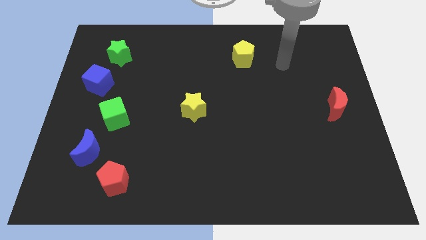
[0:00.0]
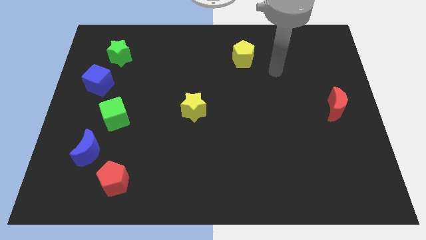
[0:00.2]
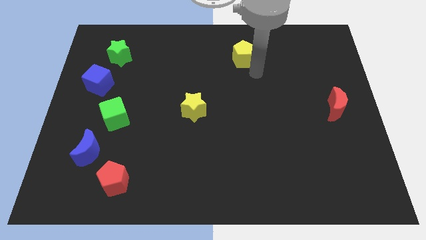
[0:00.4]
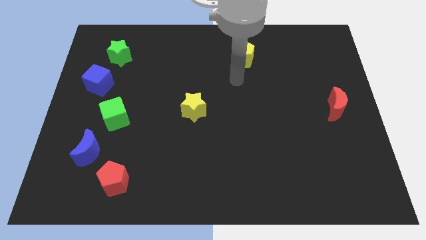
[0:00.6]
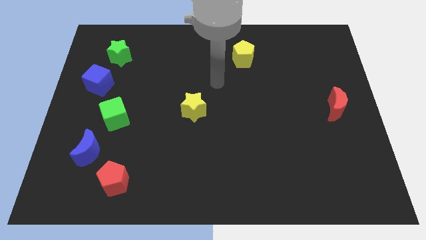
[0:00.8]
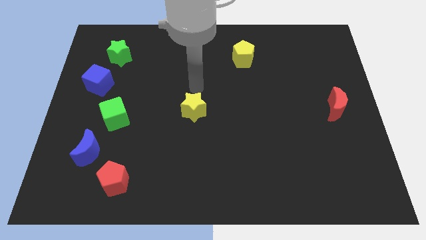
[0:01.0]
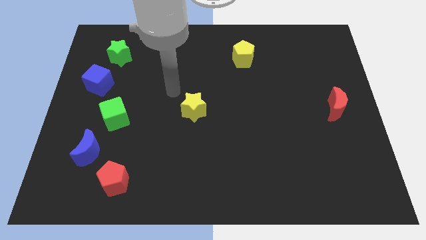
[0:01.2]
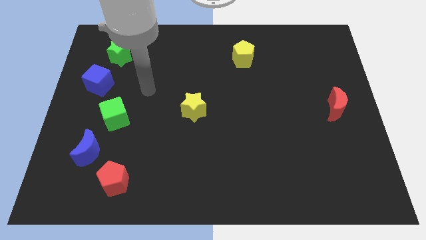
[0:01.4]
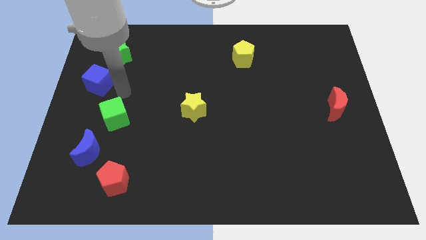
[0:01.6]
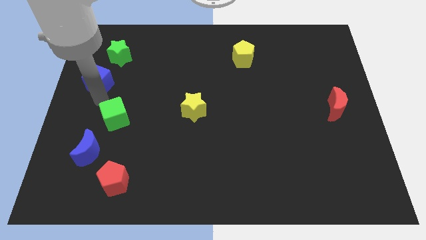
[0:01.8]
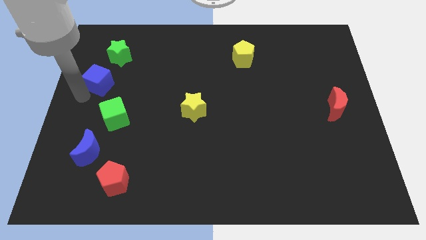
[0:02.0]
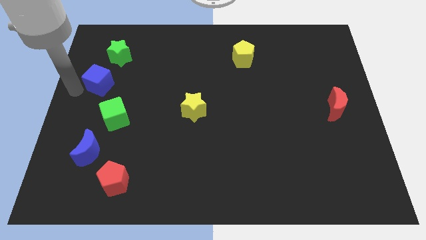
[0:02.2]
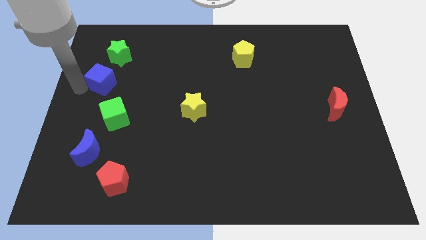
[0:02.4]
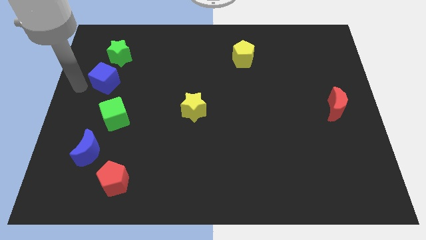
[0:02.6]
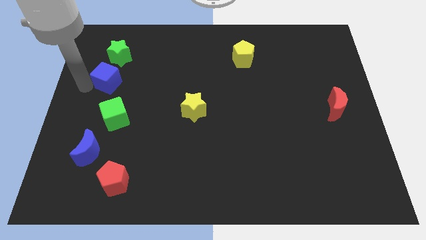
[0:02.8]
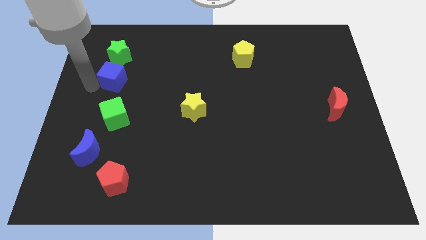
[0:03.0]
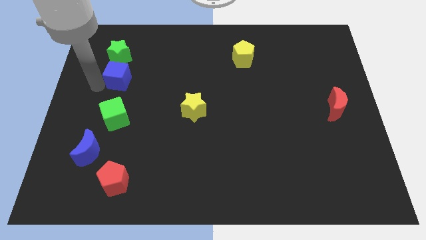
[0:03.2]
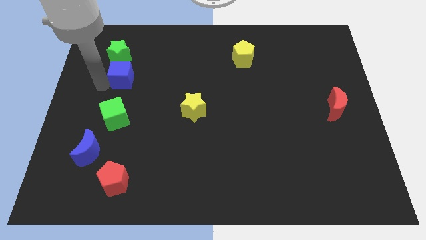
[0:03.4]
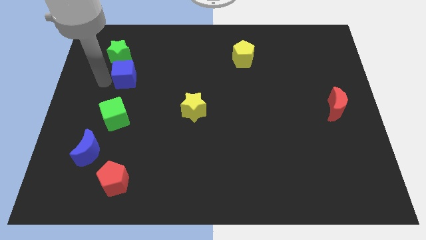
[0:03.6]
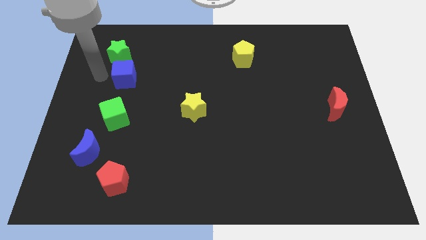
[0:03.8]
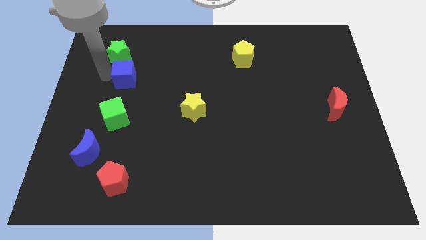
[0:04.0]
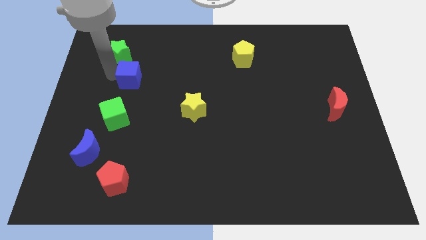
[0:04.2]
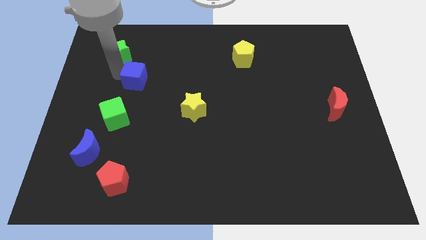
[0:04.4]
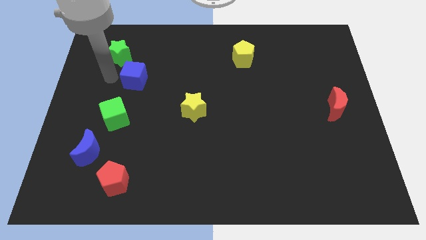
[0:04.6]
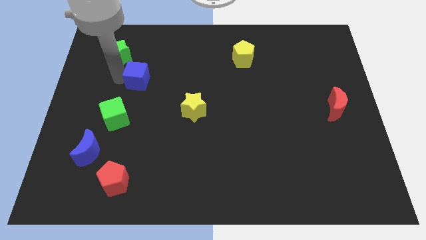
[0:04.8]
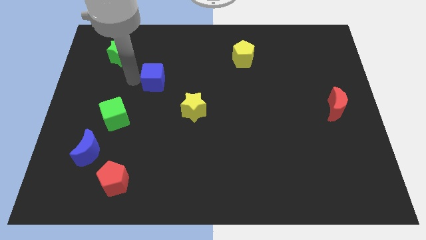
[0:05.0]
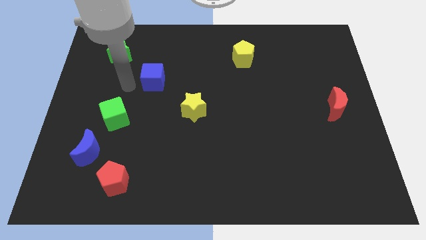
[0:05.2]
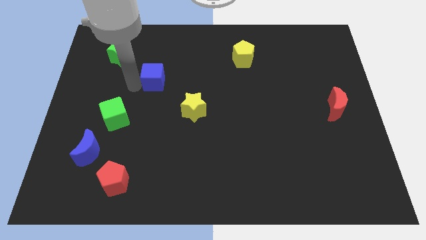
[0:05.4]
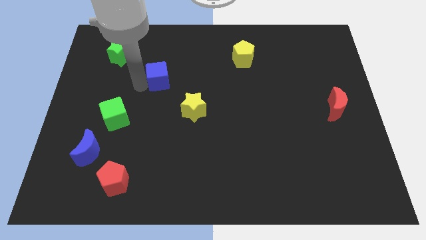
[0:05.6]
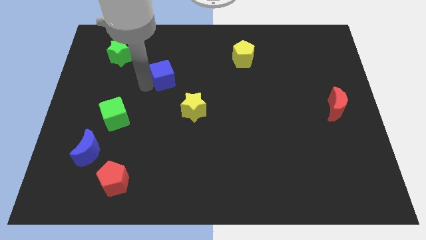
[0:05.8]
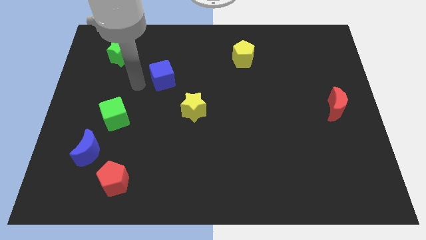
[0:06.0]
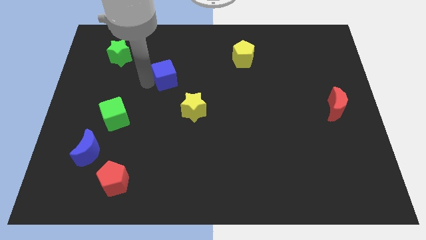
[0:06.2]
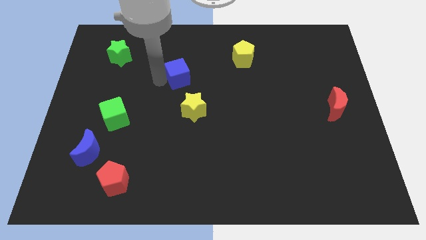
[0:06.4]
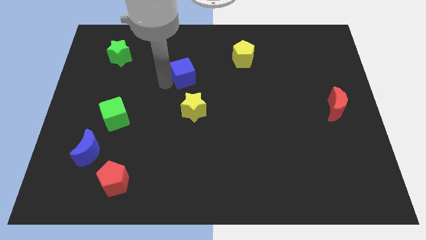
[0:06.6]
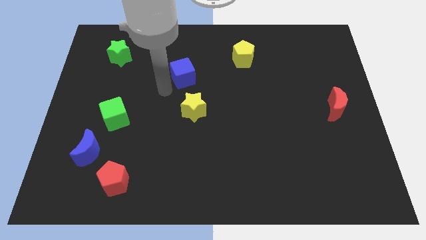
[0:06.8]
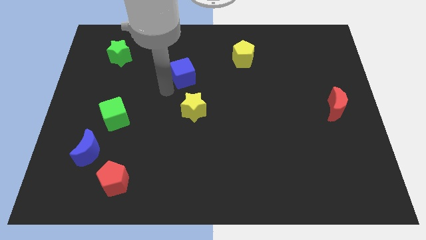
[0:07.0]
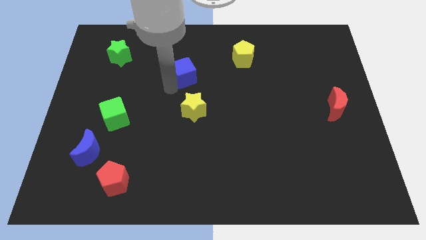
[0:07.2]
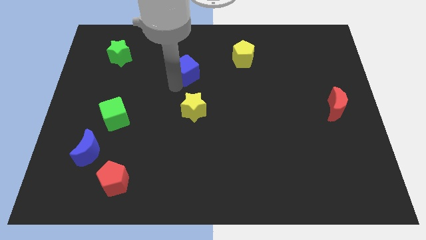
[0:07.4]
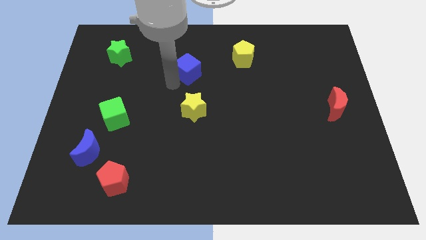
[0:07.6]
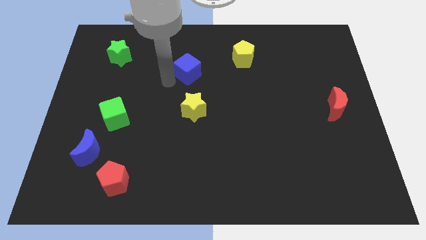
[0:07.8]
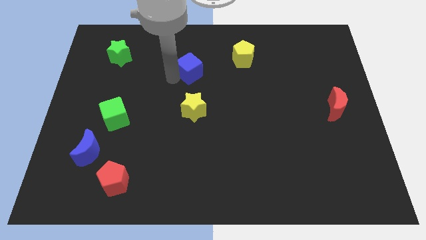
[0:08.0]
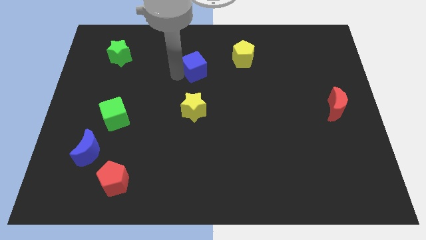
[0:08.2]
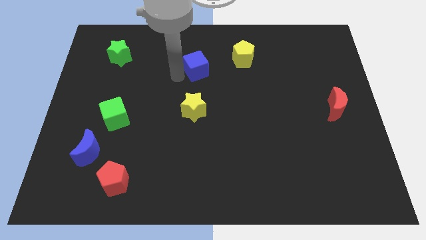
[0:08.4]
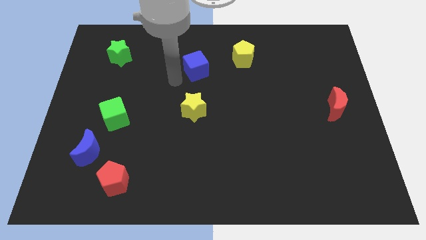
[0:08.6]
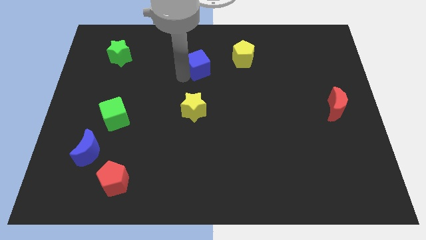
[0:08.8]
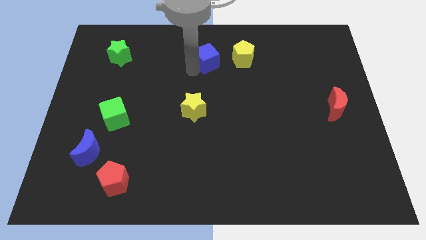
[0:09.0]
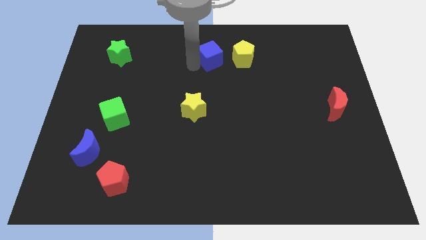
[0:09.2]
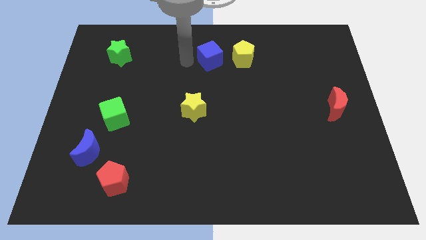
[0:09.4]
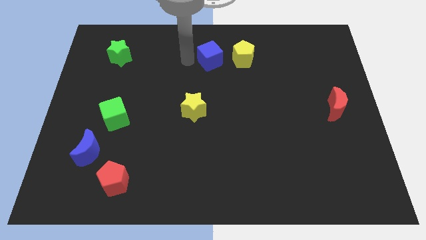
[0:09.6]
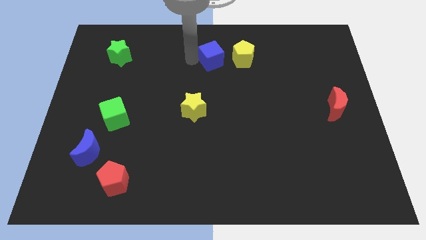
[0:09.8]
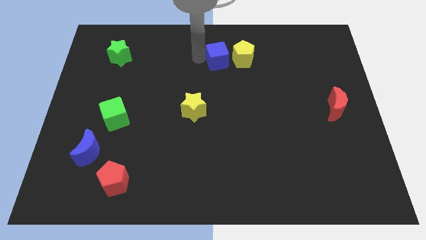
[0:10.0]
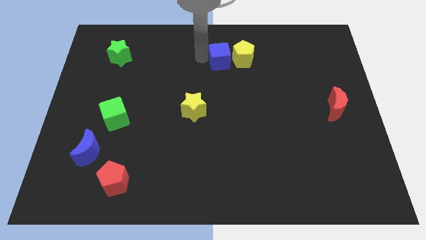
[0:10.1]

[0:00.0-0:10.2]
move the blue cube close to the yellow pentagon

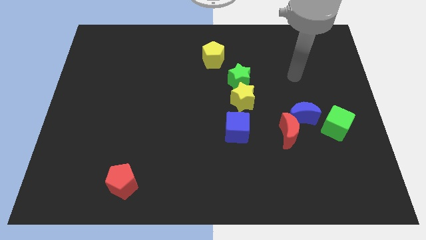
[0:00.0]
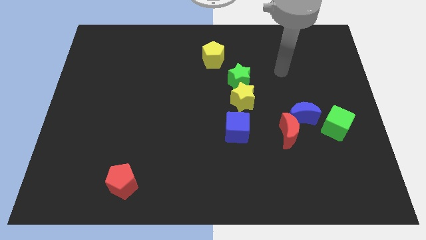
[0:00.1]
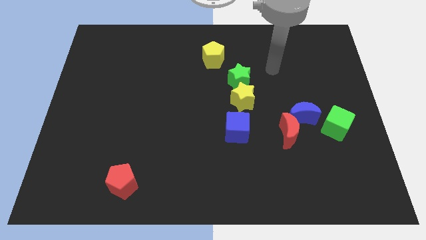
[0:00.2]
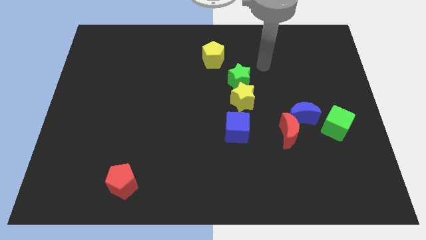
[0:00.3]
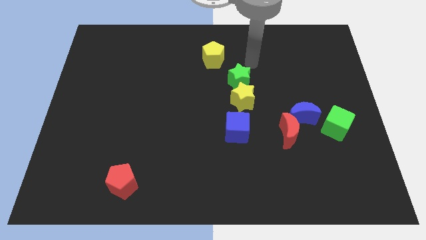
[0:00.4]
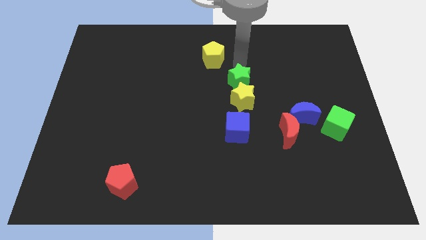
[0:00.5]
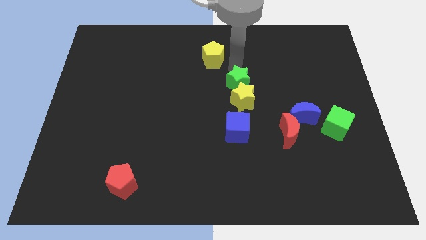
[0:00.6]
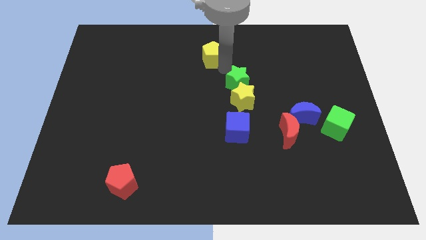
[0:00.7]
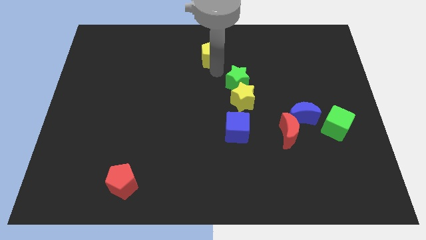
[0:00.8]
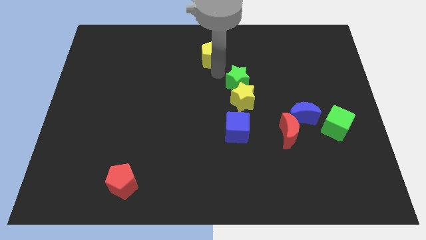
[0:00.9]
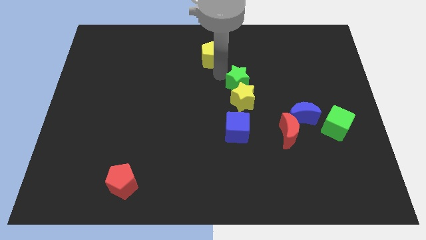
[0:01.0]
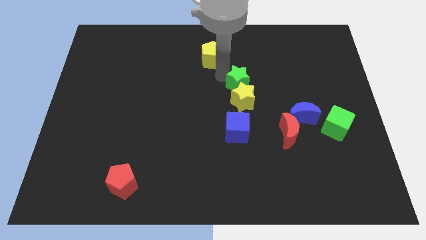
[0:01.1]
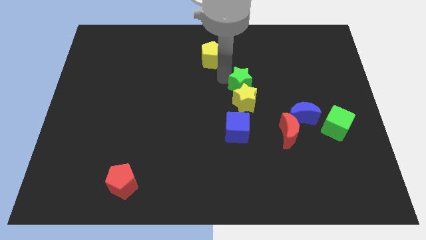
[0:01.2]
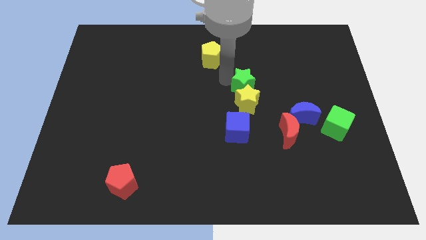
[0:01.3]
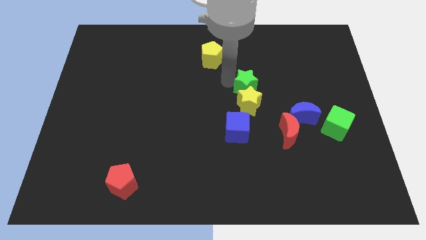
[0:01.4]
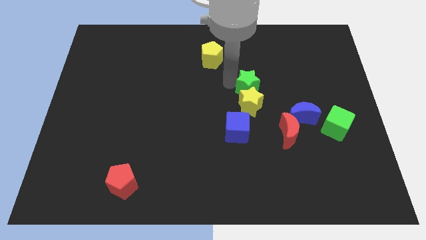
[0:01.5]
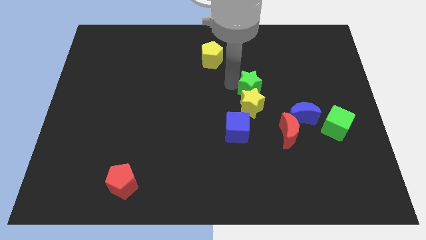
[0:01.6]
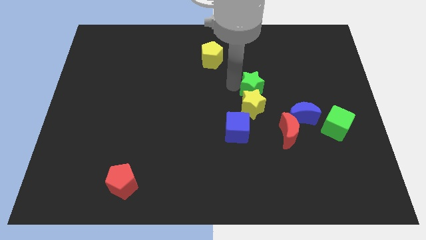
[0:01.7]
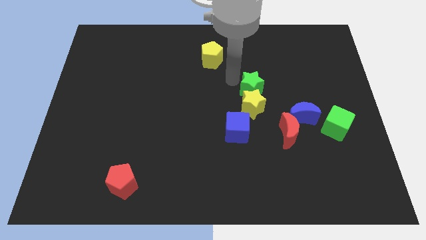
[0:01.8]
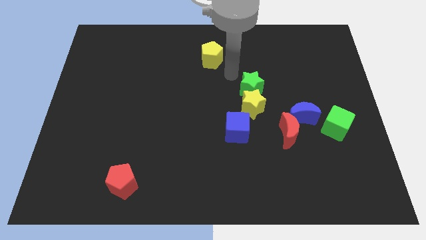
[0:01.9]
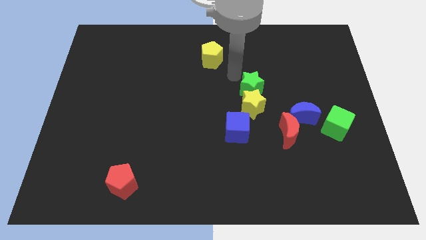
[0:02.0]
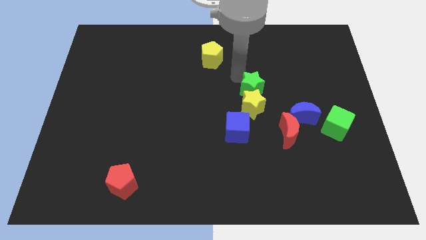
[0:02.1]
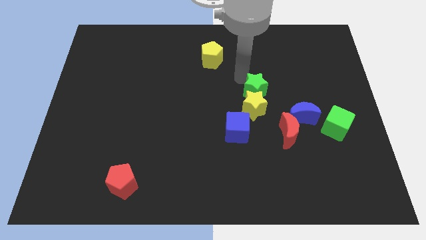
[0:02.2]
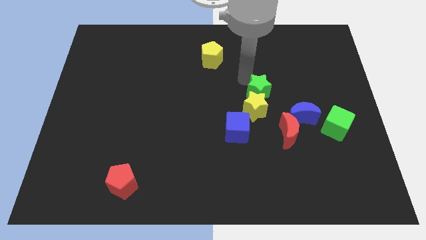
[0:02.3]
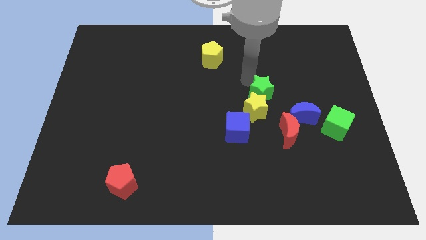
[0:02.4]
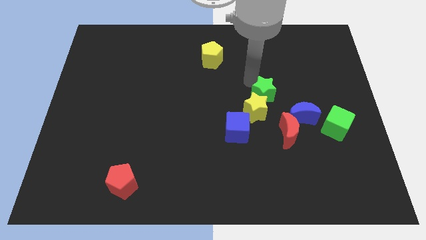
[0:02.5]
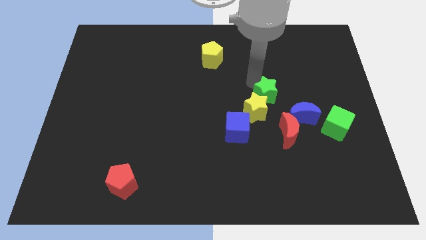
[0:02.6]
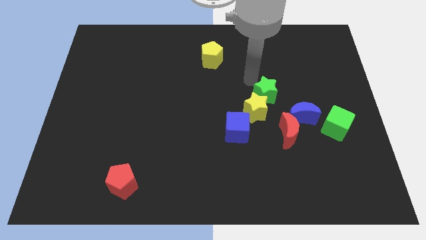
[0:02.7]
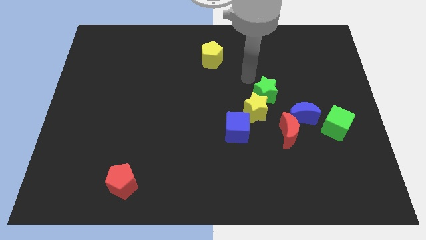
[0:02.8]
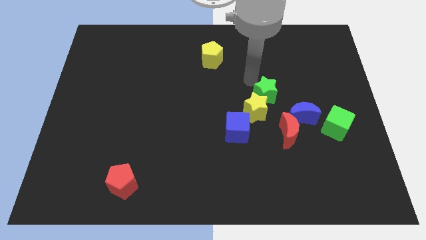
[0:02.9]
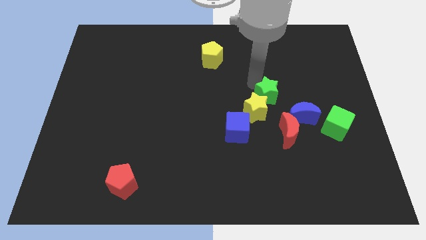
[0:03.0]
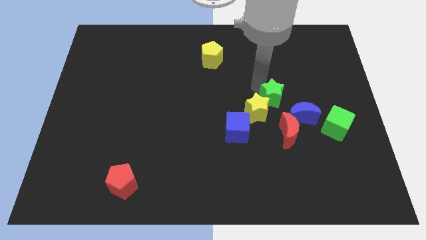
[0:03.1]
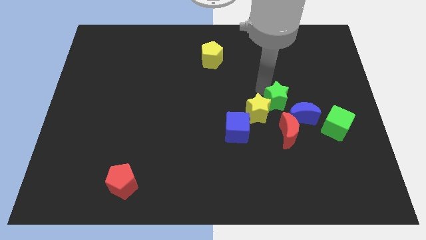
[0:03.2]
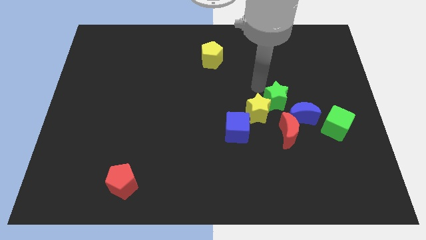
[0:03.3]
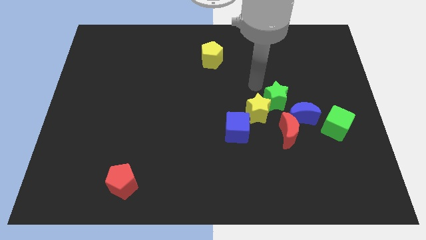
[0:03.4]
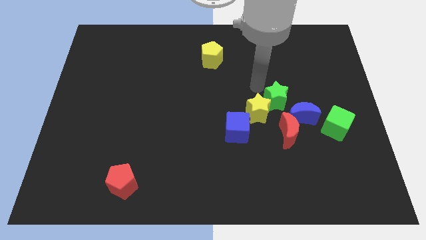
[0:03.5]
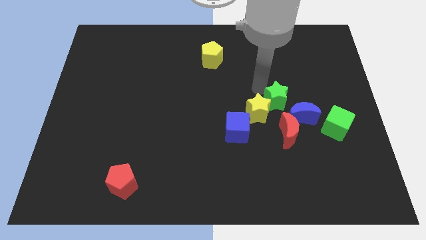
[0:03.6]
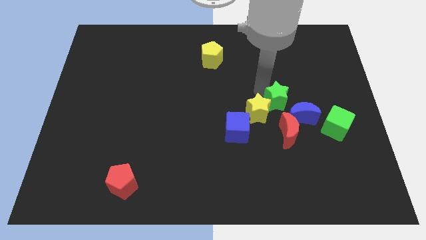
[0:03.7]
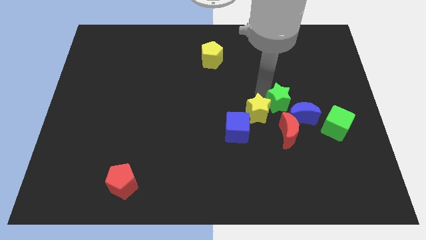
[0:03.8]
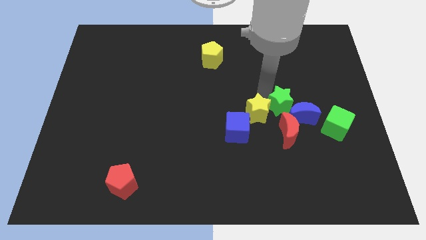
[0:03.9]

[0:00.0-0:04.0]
move the green star close to the blue moon
